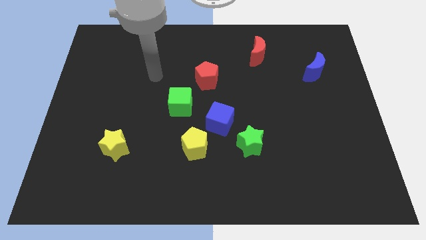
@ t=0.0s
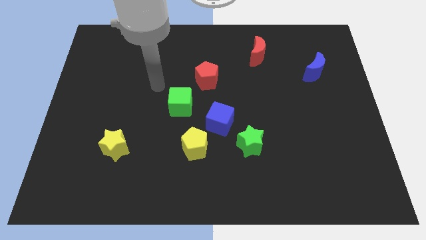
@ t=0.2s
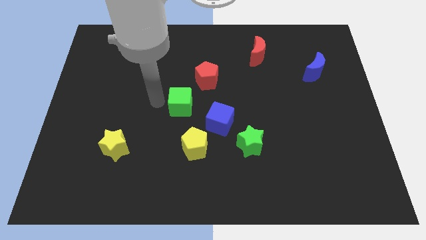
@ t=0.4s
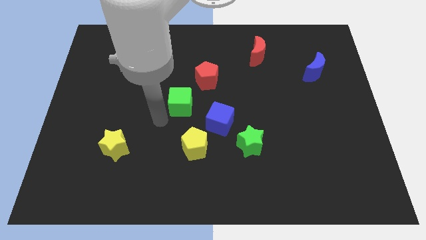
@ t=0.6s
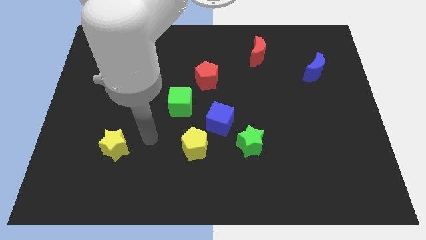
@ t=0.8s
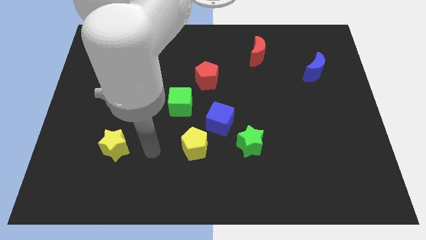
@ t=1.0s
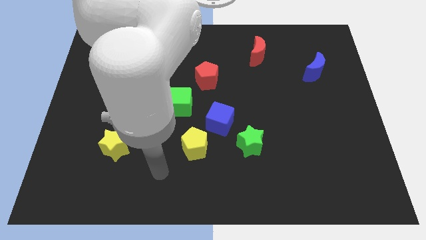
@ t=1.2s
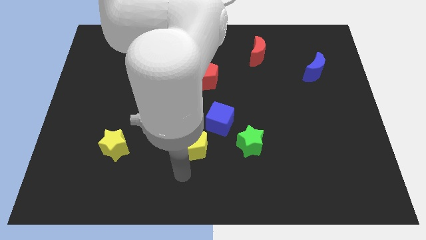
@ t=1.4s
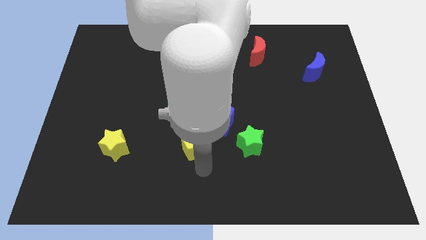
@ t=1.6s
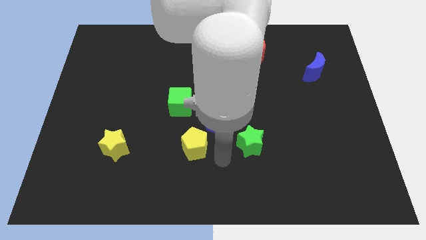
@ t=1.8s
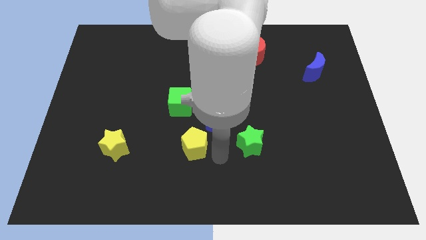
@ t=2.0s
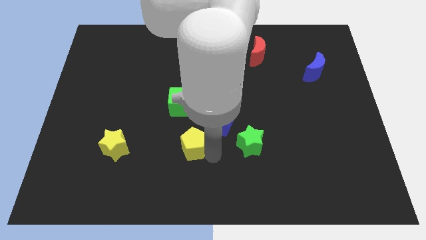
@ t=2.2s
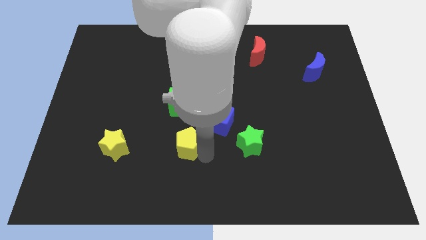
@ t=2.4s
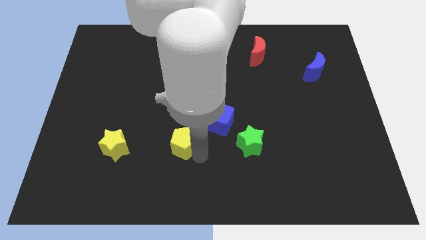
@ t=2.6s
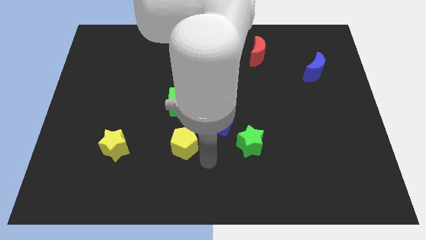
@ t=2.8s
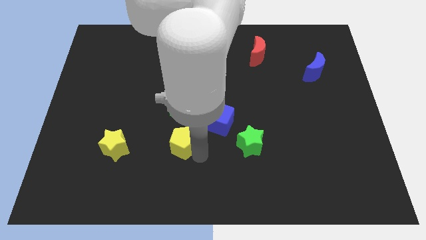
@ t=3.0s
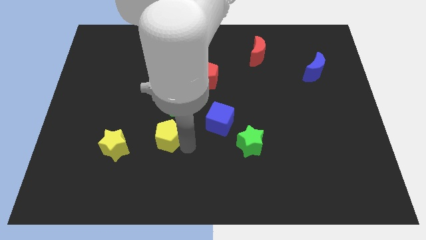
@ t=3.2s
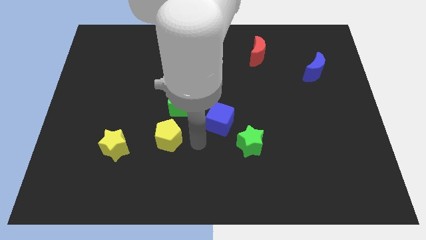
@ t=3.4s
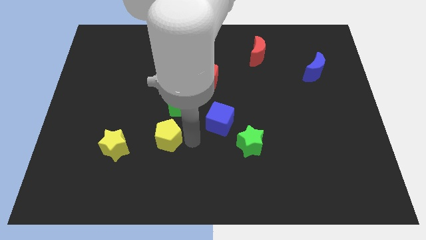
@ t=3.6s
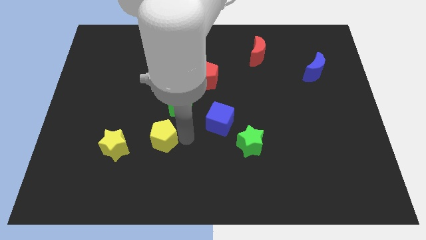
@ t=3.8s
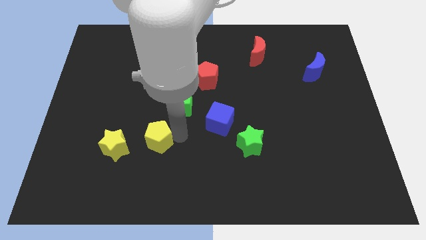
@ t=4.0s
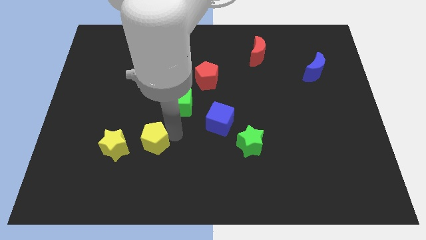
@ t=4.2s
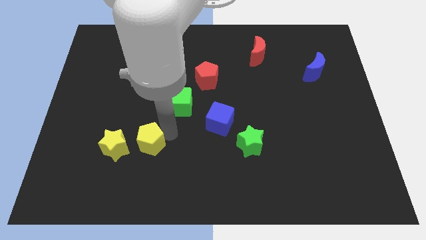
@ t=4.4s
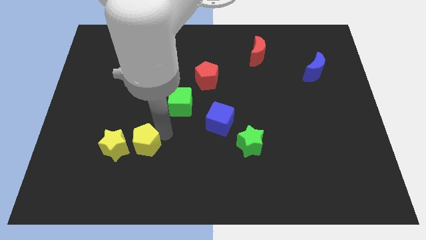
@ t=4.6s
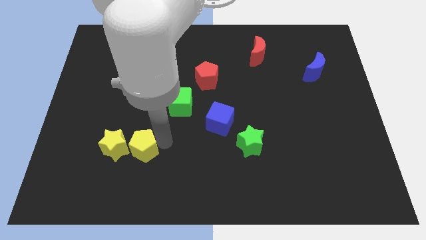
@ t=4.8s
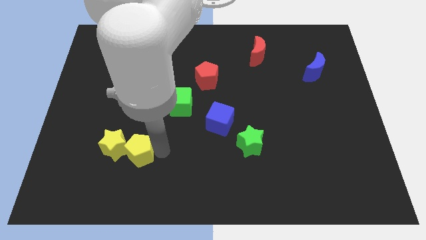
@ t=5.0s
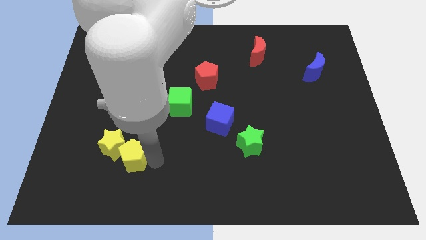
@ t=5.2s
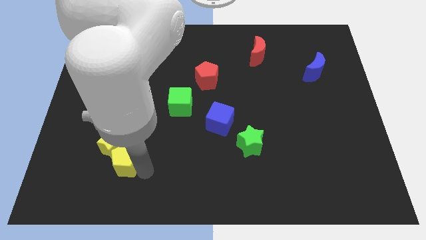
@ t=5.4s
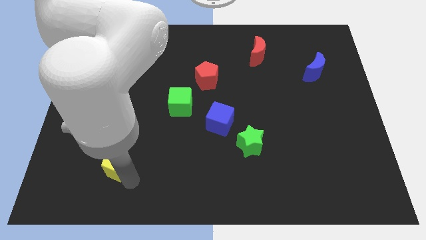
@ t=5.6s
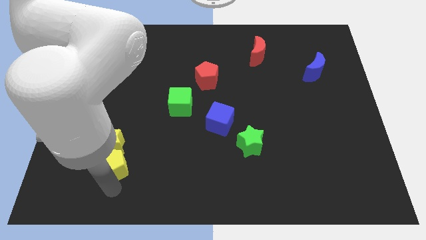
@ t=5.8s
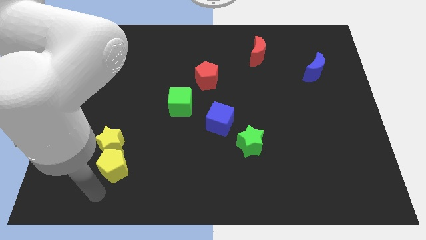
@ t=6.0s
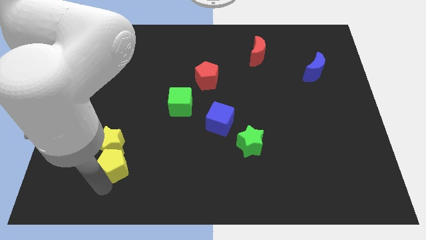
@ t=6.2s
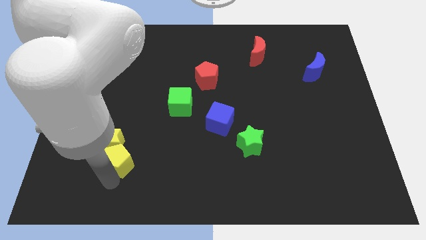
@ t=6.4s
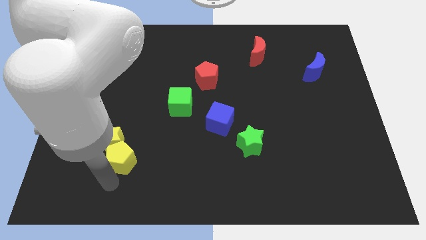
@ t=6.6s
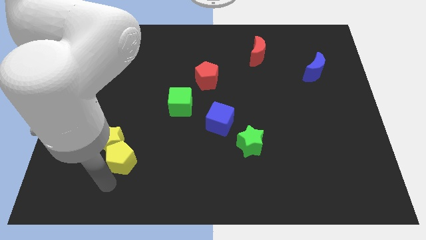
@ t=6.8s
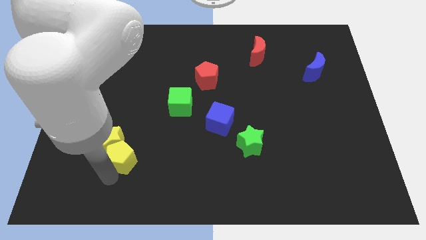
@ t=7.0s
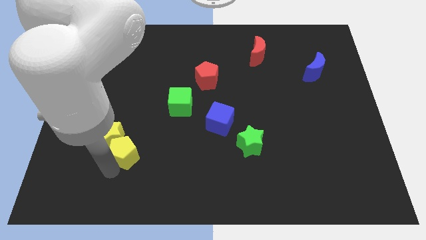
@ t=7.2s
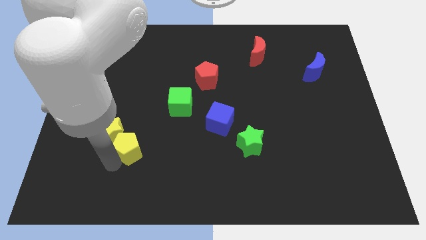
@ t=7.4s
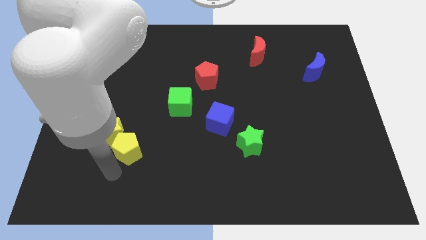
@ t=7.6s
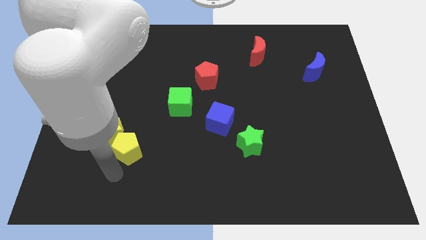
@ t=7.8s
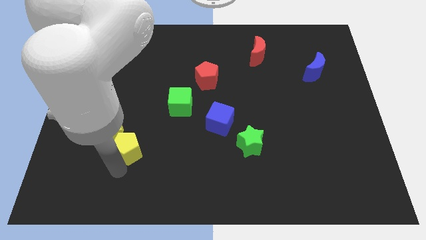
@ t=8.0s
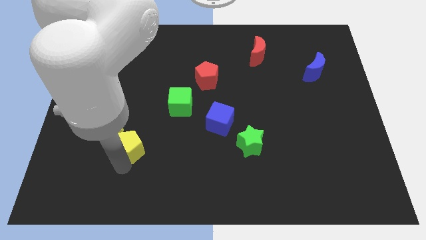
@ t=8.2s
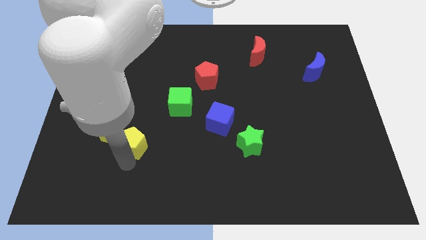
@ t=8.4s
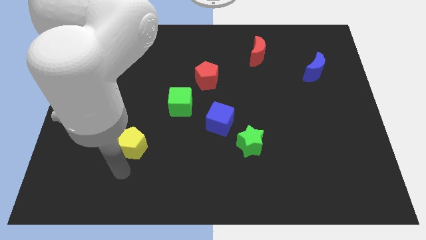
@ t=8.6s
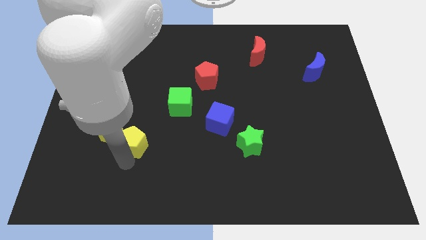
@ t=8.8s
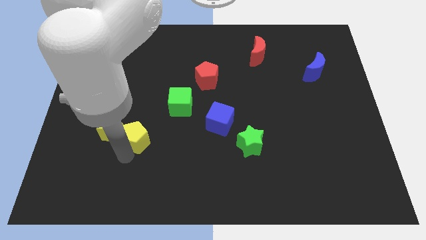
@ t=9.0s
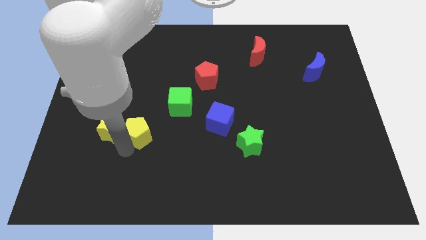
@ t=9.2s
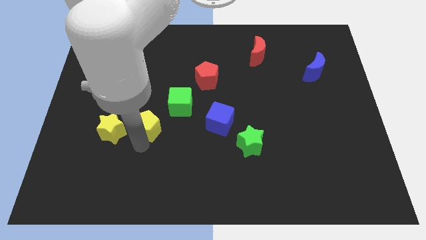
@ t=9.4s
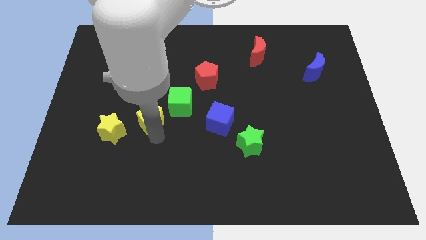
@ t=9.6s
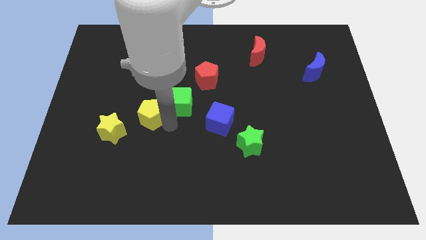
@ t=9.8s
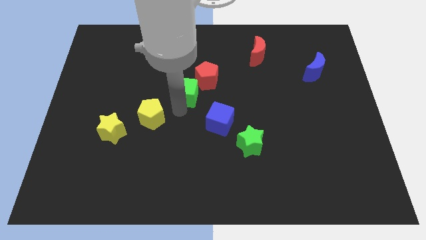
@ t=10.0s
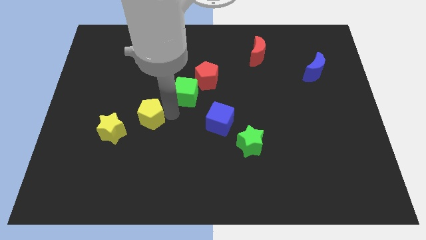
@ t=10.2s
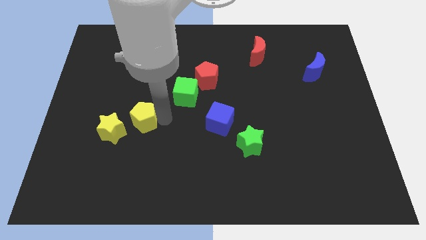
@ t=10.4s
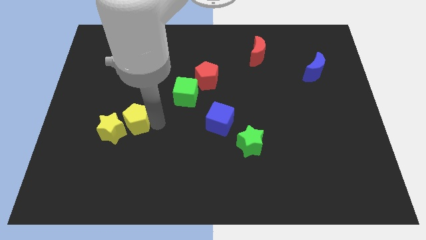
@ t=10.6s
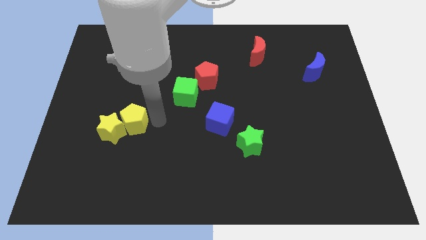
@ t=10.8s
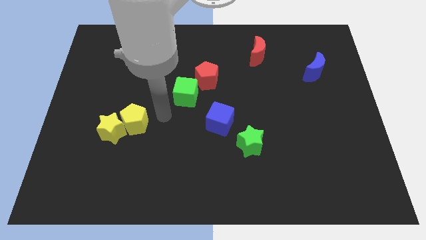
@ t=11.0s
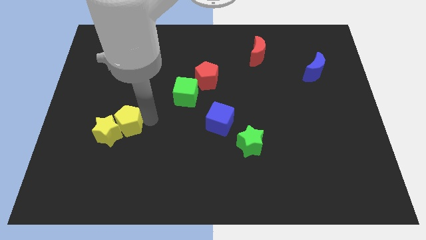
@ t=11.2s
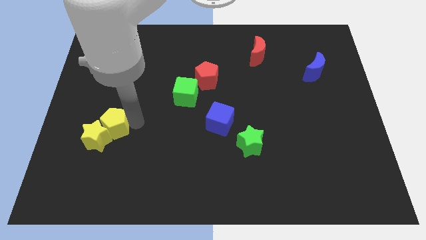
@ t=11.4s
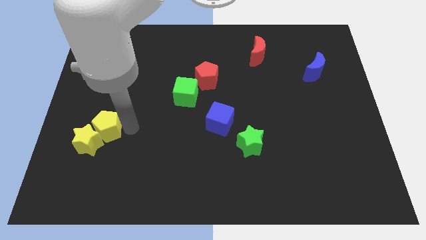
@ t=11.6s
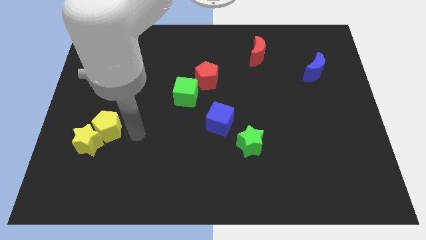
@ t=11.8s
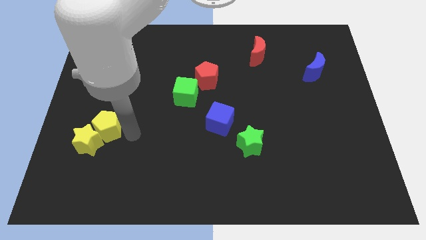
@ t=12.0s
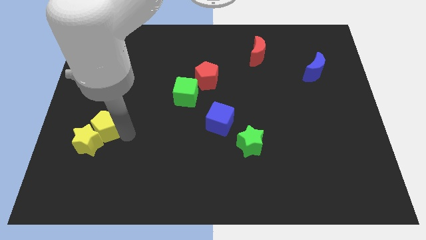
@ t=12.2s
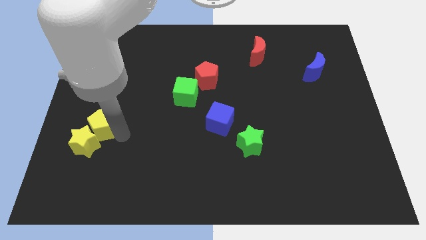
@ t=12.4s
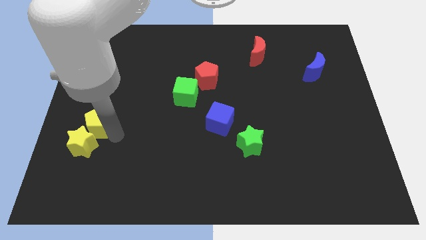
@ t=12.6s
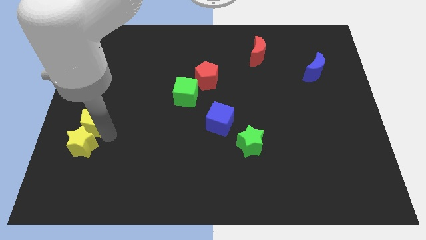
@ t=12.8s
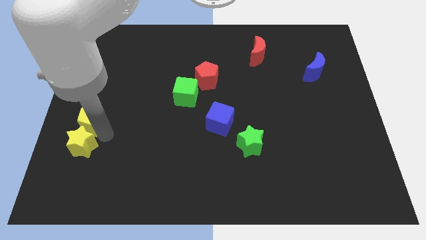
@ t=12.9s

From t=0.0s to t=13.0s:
put the yellow pentagon to the center left
